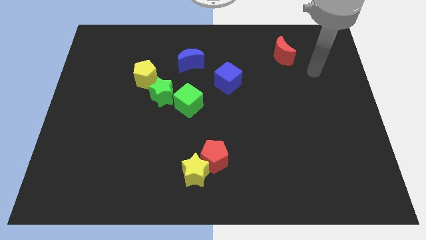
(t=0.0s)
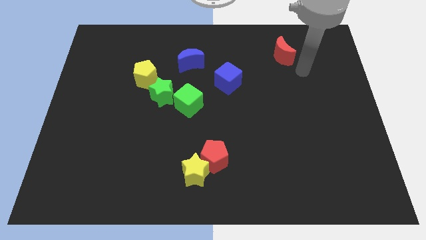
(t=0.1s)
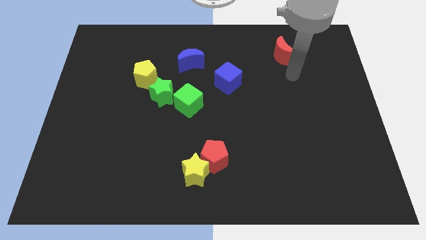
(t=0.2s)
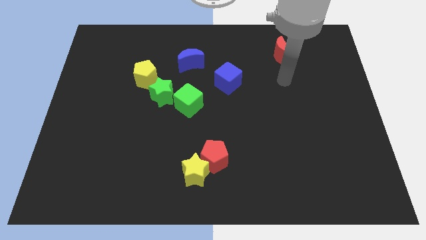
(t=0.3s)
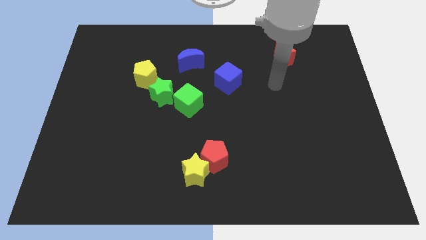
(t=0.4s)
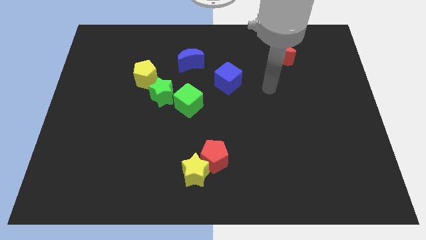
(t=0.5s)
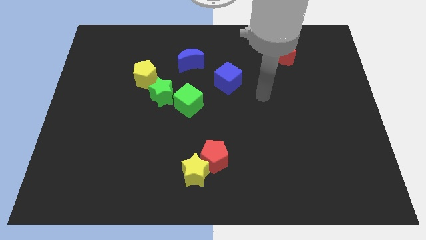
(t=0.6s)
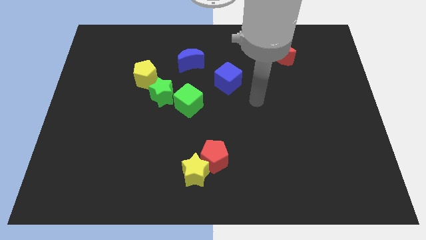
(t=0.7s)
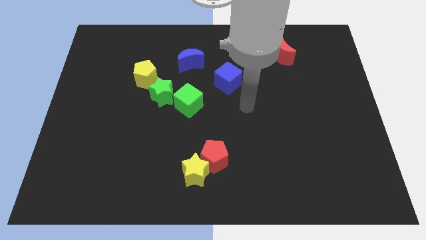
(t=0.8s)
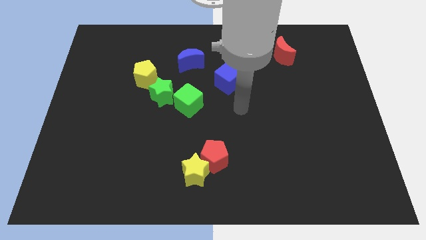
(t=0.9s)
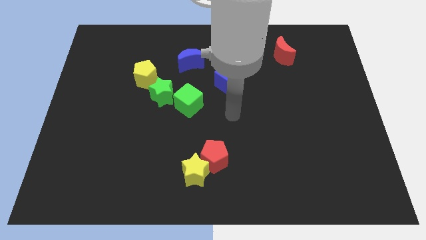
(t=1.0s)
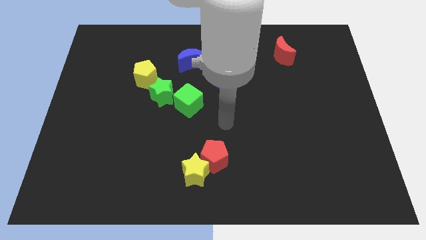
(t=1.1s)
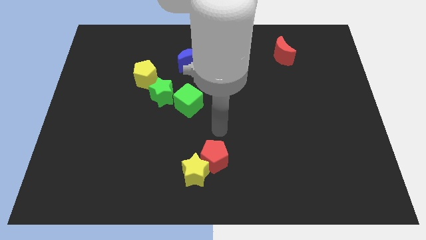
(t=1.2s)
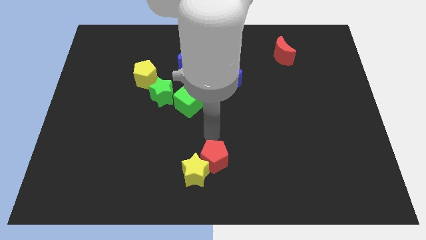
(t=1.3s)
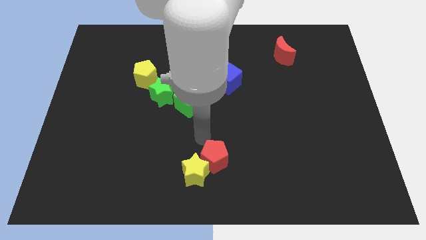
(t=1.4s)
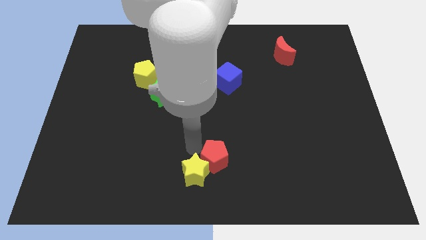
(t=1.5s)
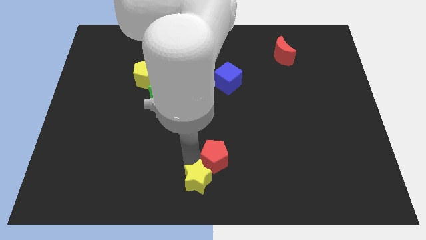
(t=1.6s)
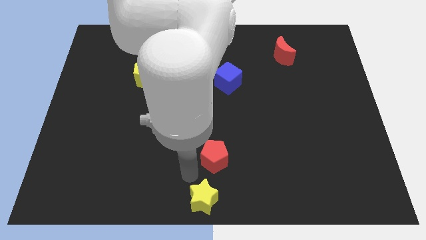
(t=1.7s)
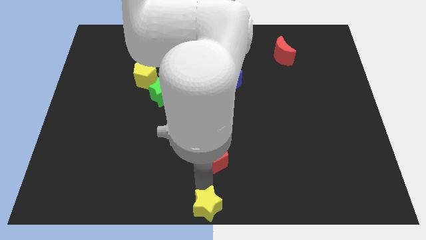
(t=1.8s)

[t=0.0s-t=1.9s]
pull the red pentagon apart from the yellow star

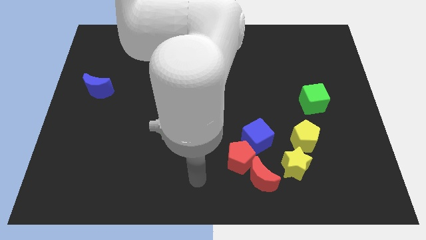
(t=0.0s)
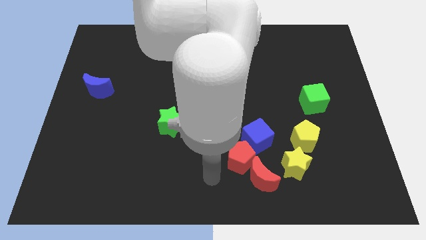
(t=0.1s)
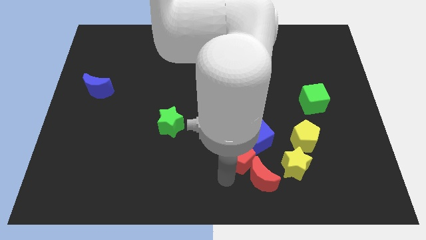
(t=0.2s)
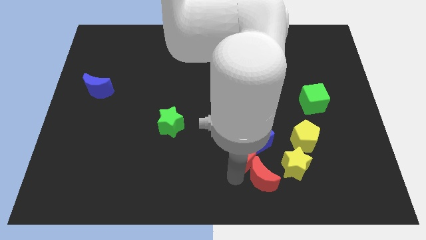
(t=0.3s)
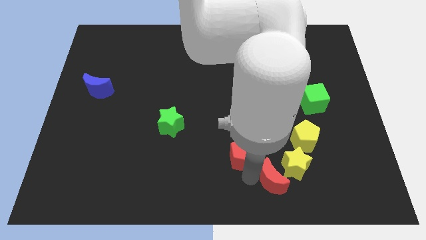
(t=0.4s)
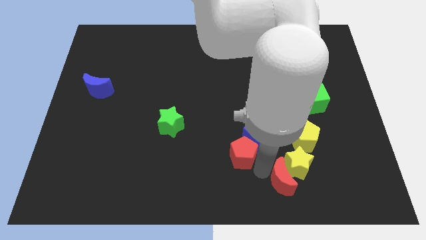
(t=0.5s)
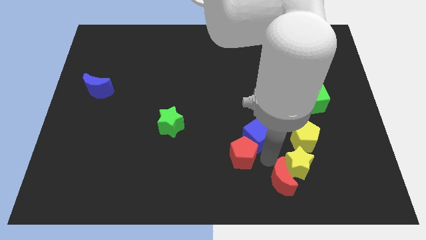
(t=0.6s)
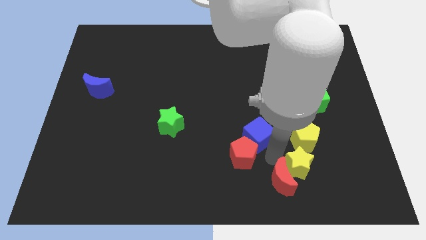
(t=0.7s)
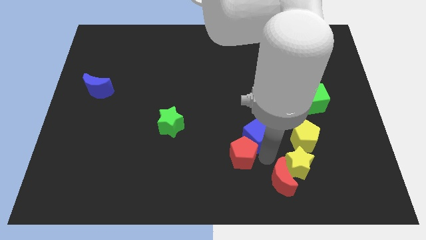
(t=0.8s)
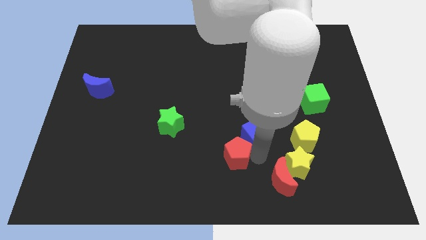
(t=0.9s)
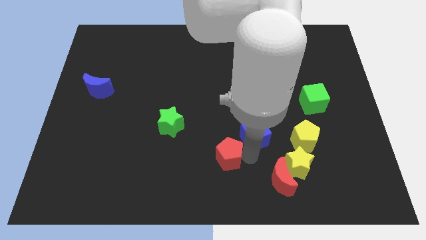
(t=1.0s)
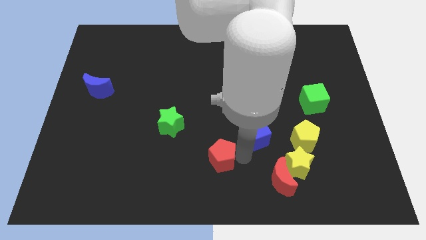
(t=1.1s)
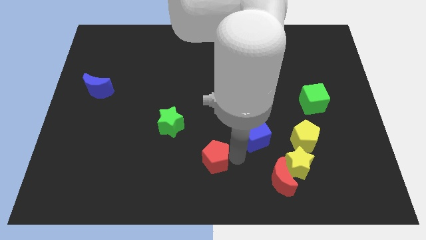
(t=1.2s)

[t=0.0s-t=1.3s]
separate the red pentagon from the red moon and blue cube

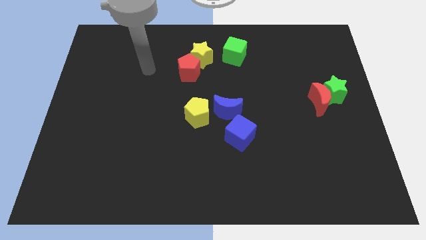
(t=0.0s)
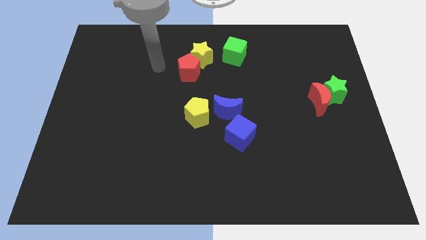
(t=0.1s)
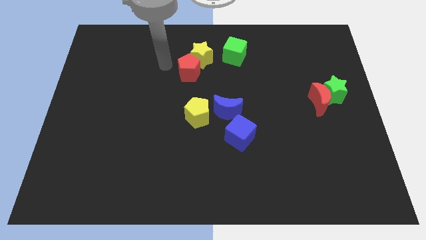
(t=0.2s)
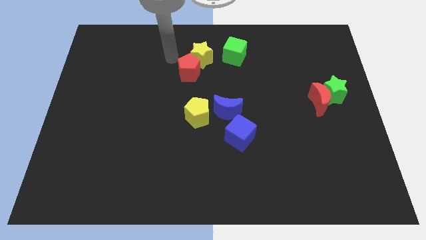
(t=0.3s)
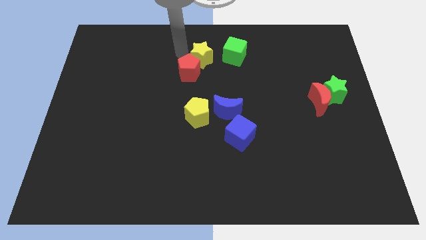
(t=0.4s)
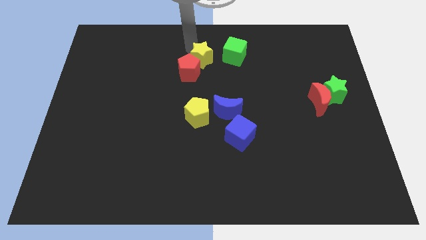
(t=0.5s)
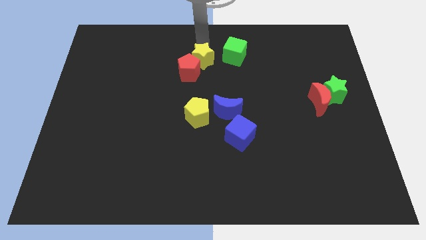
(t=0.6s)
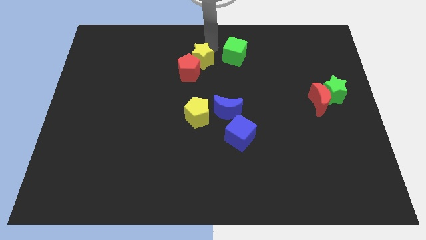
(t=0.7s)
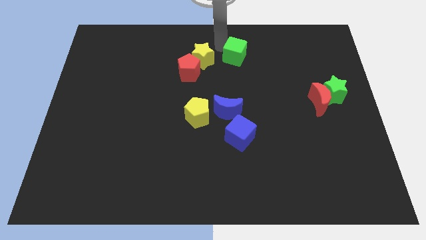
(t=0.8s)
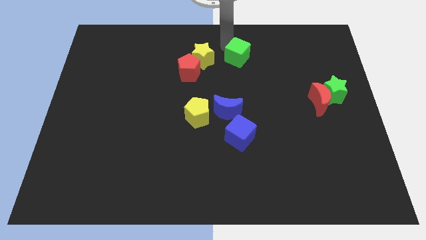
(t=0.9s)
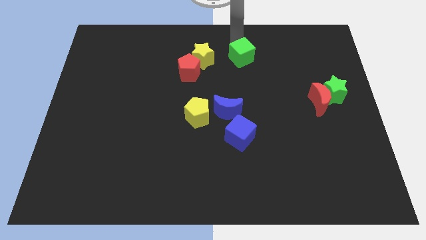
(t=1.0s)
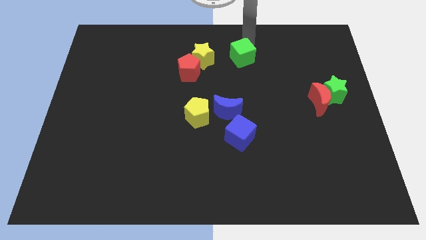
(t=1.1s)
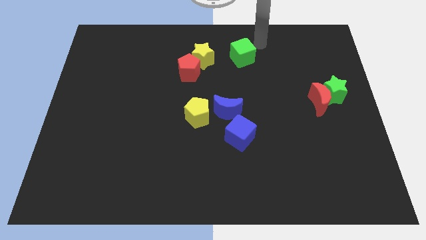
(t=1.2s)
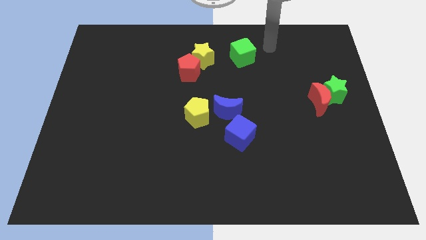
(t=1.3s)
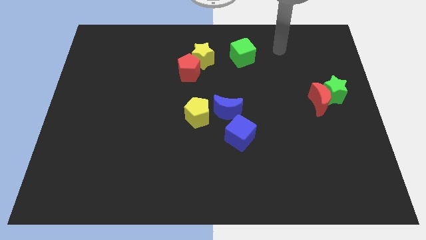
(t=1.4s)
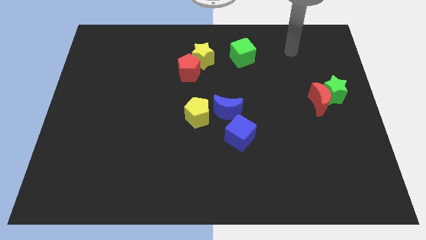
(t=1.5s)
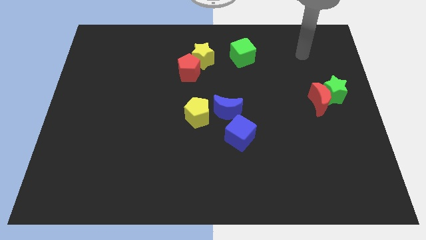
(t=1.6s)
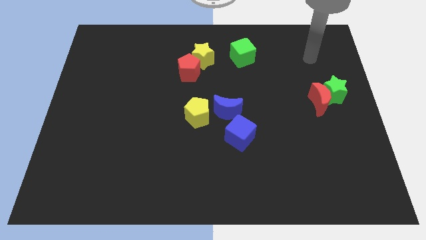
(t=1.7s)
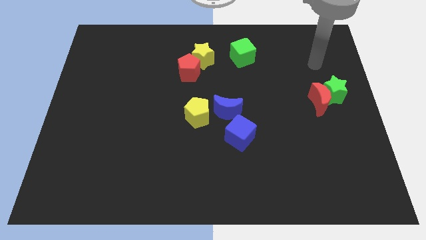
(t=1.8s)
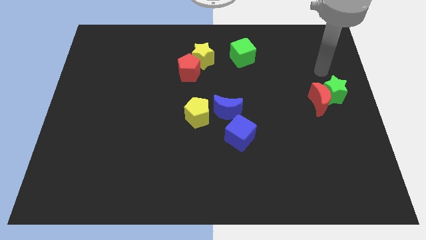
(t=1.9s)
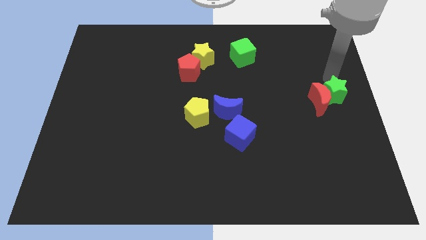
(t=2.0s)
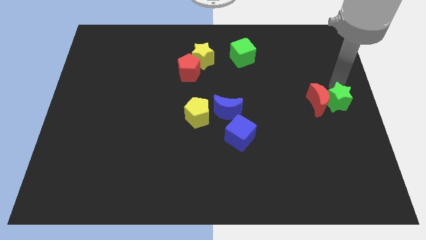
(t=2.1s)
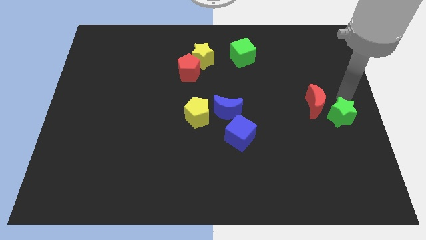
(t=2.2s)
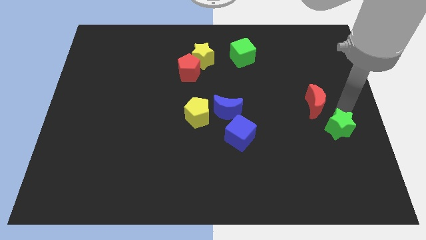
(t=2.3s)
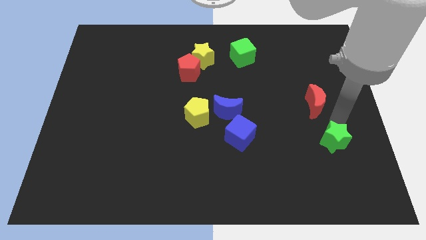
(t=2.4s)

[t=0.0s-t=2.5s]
pull the red moon apart from the green star

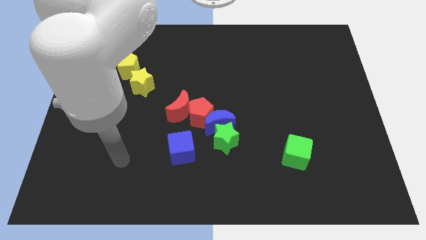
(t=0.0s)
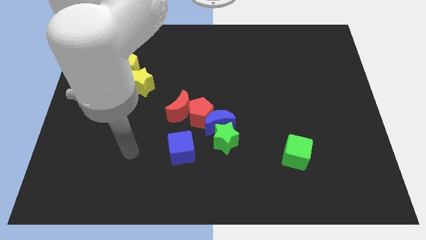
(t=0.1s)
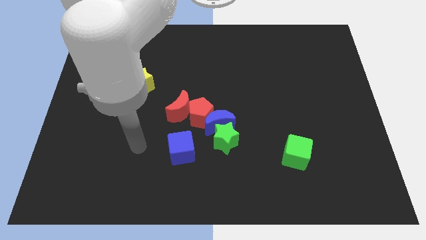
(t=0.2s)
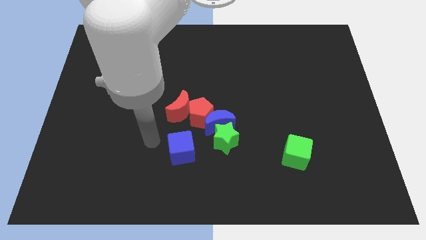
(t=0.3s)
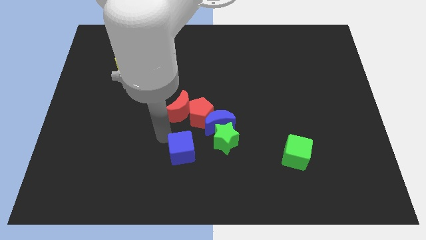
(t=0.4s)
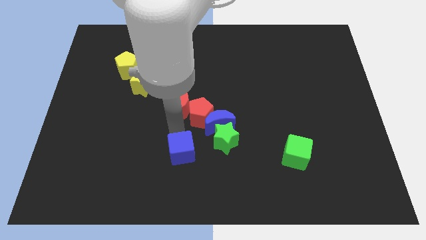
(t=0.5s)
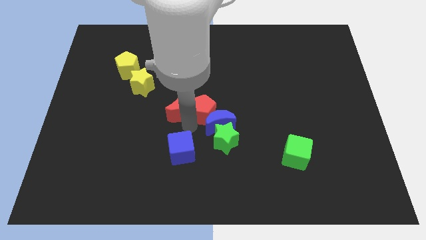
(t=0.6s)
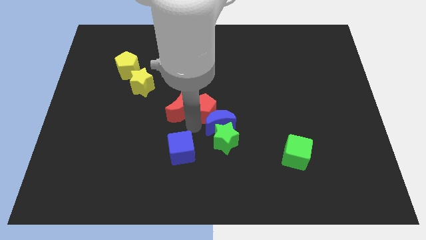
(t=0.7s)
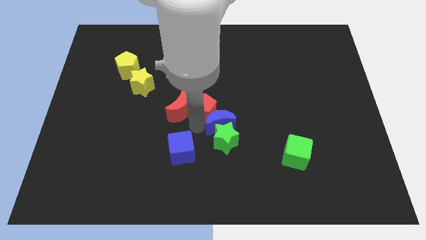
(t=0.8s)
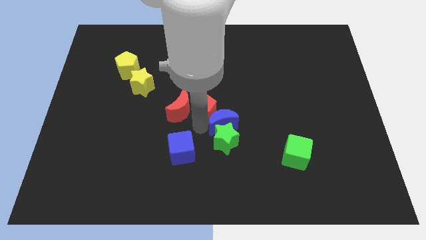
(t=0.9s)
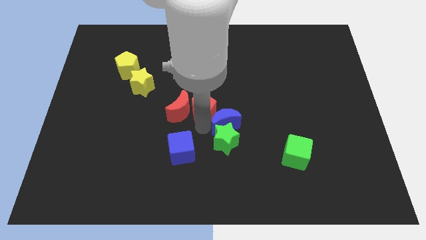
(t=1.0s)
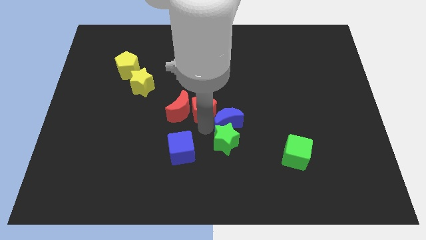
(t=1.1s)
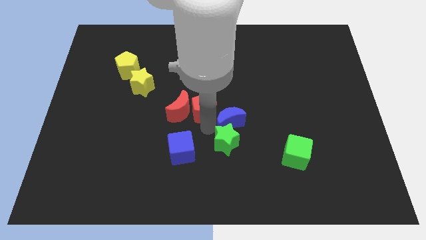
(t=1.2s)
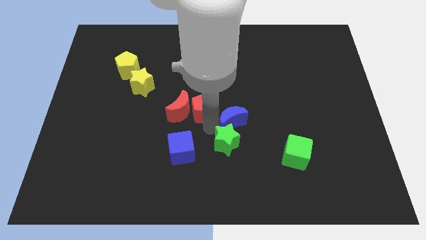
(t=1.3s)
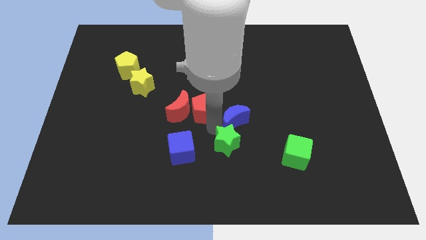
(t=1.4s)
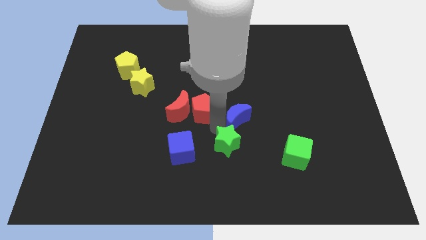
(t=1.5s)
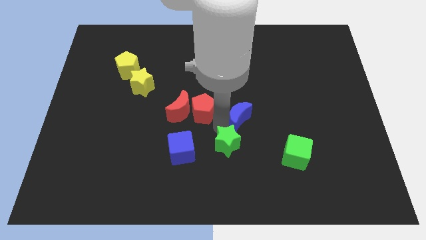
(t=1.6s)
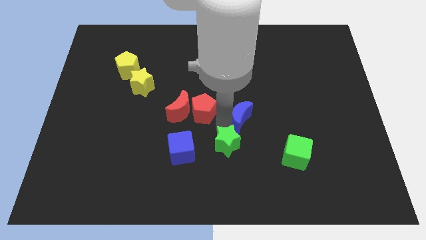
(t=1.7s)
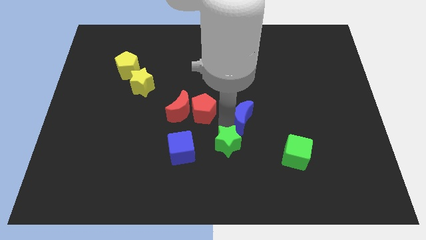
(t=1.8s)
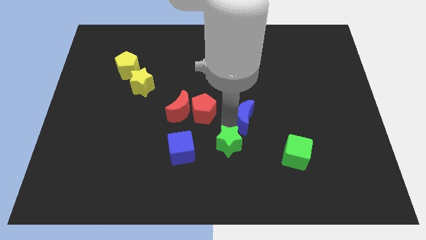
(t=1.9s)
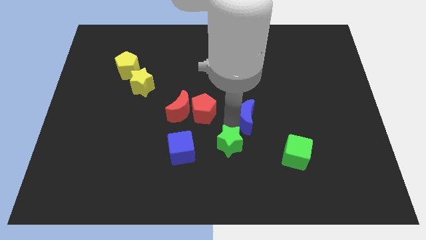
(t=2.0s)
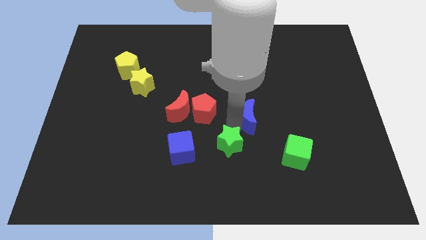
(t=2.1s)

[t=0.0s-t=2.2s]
move the blue moon away from the green star, red pentagon, and red moon

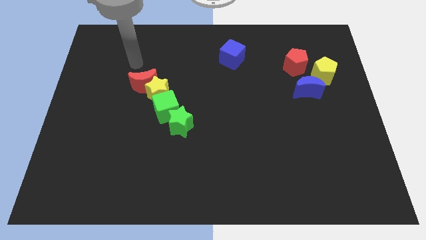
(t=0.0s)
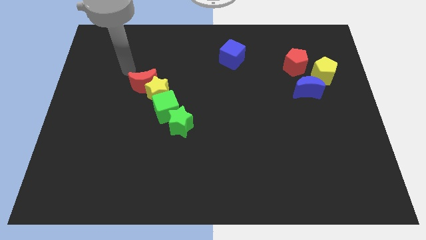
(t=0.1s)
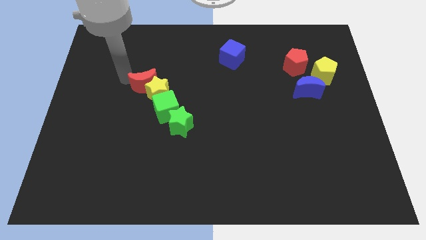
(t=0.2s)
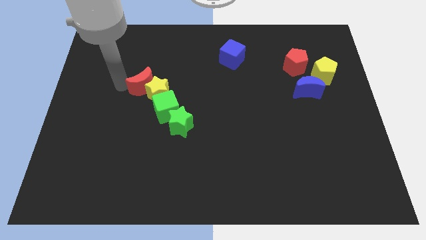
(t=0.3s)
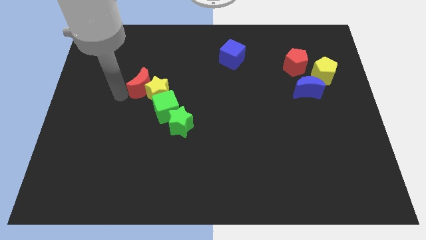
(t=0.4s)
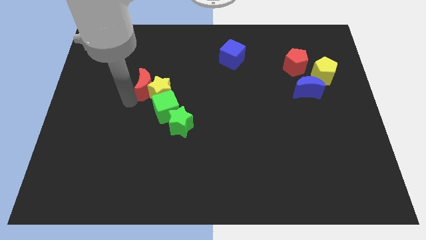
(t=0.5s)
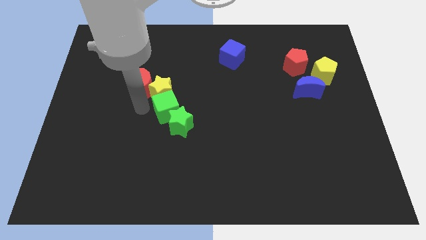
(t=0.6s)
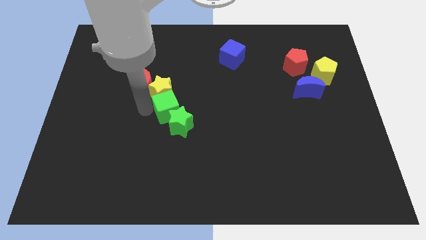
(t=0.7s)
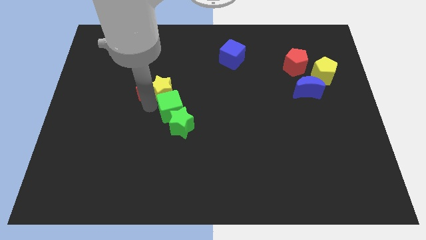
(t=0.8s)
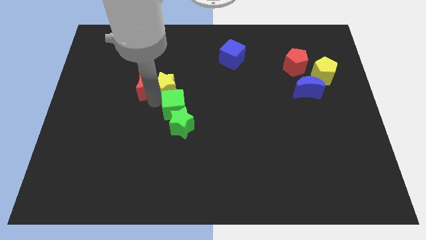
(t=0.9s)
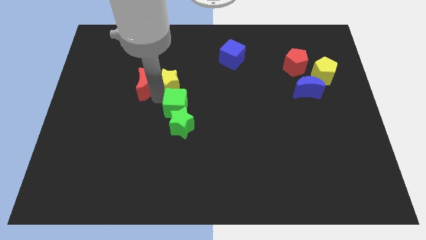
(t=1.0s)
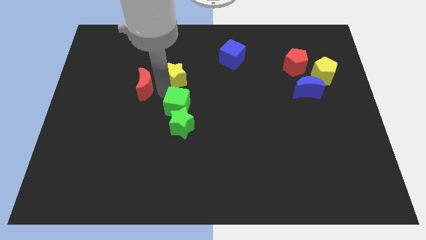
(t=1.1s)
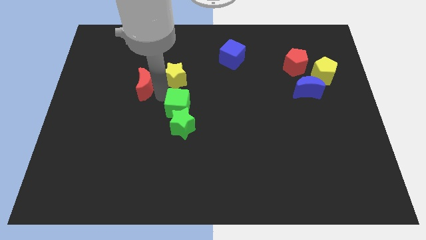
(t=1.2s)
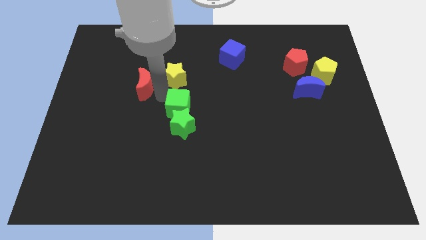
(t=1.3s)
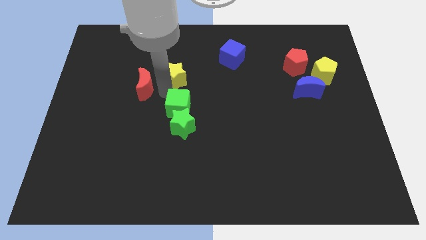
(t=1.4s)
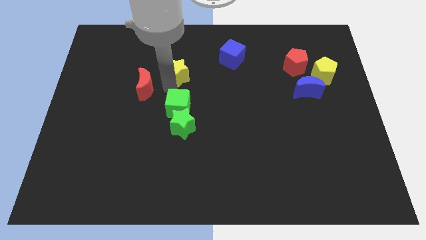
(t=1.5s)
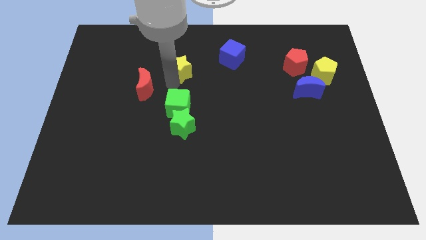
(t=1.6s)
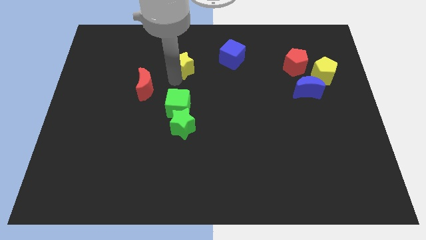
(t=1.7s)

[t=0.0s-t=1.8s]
separate the yellow star from the red moon and green cube
